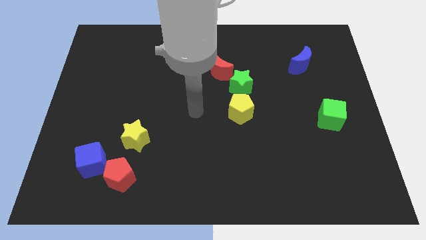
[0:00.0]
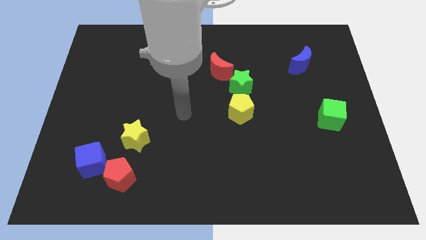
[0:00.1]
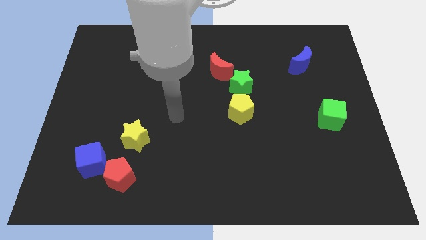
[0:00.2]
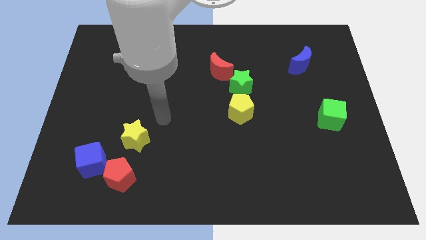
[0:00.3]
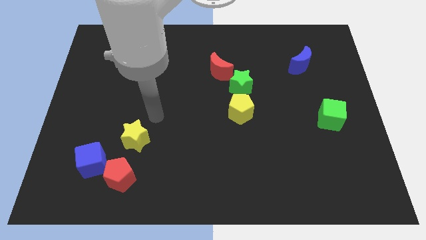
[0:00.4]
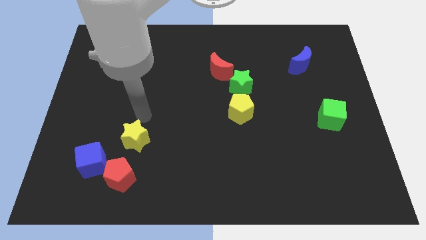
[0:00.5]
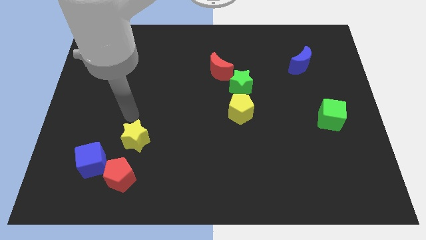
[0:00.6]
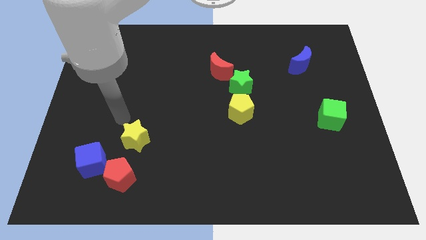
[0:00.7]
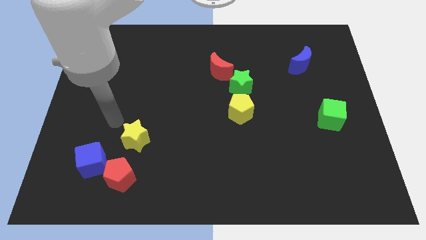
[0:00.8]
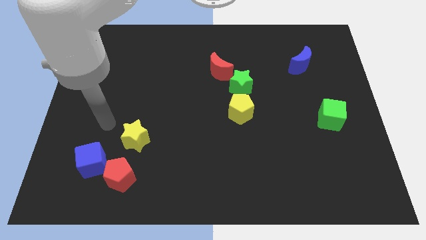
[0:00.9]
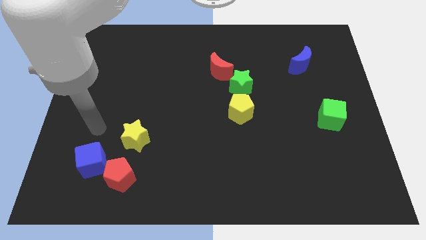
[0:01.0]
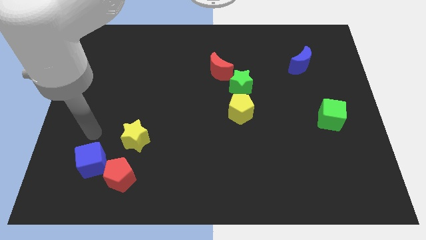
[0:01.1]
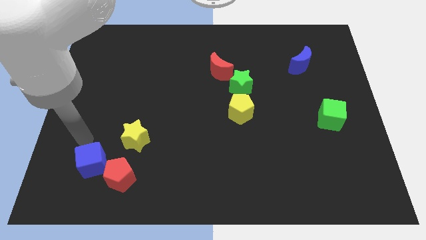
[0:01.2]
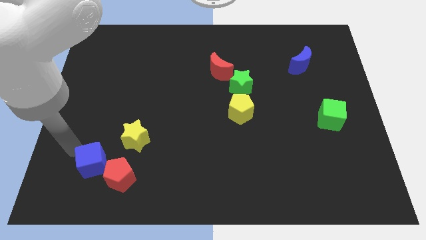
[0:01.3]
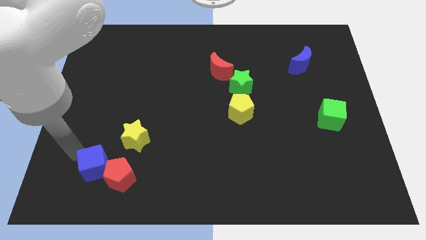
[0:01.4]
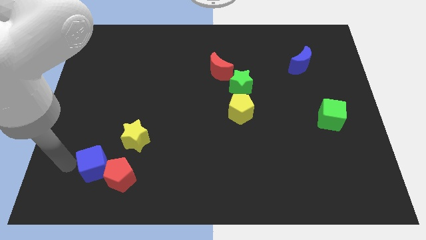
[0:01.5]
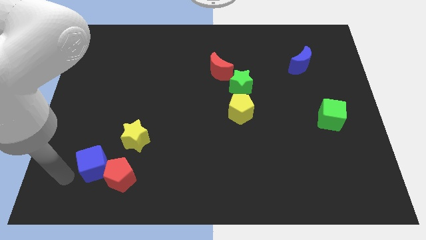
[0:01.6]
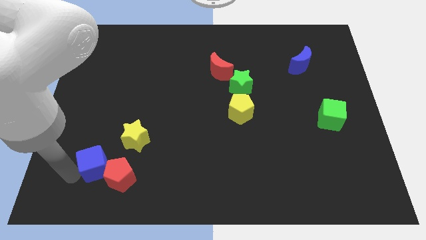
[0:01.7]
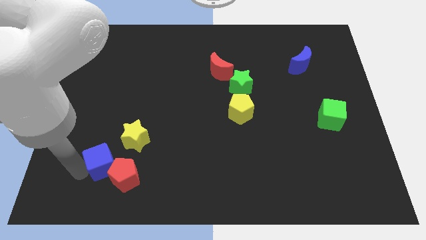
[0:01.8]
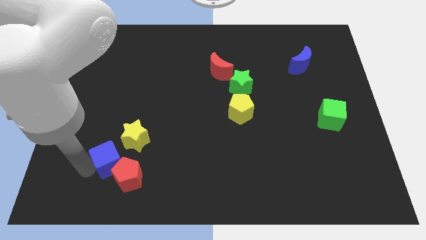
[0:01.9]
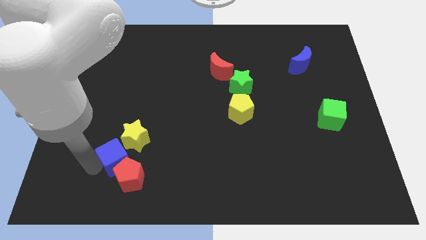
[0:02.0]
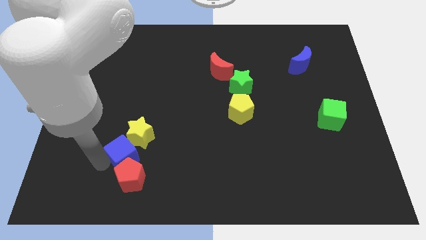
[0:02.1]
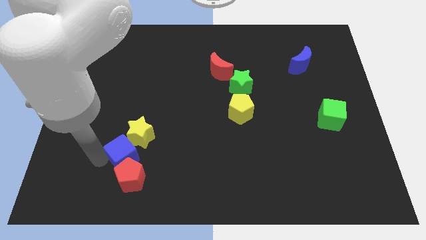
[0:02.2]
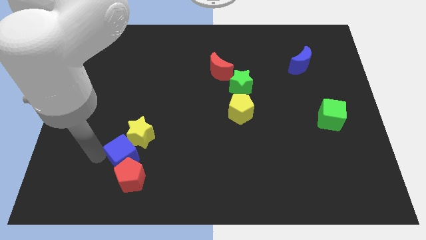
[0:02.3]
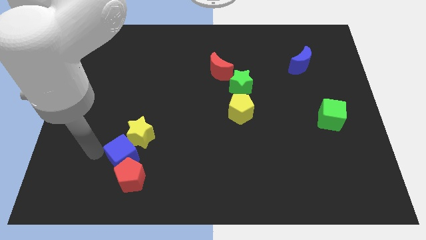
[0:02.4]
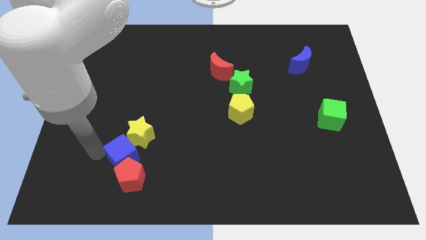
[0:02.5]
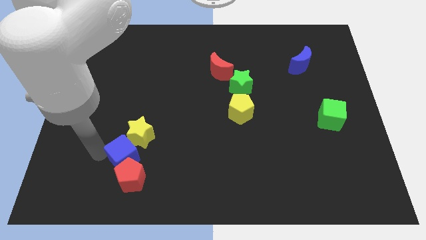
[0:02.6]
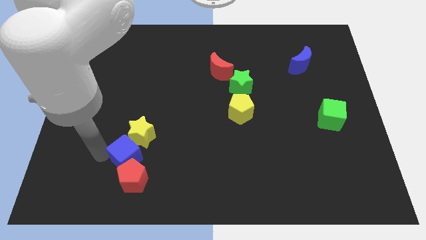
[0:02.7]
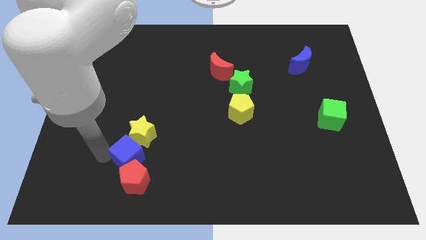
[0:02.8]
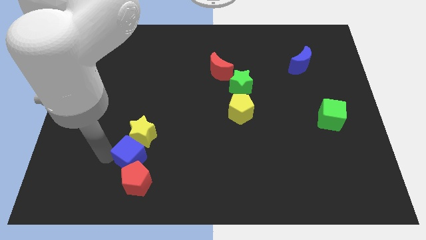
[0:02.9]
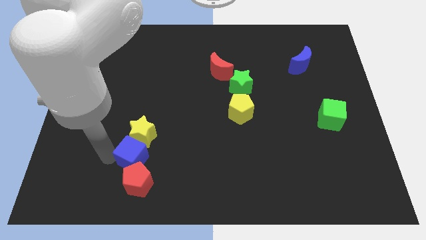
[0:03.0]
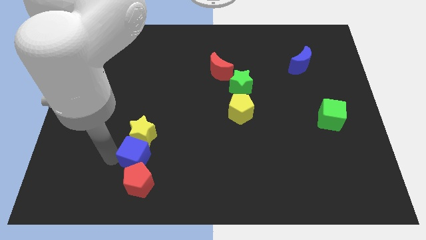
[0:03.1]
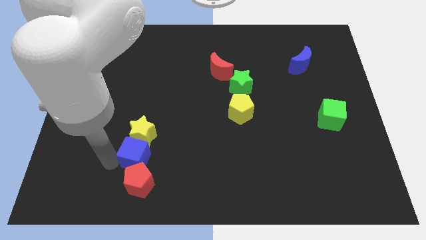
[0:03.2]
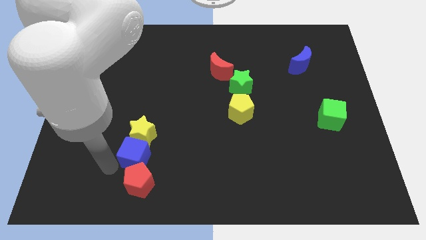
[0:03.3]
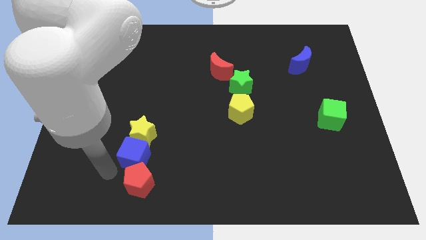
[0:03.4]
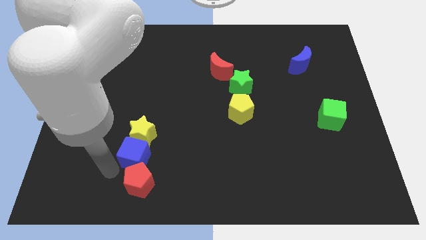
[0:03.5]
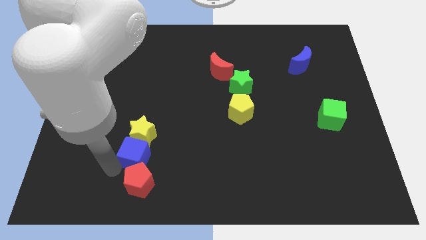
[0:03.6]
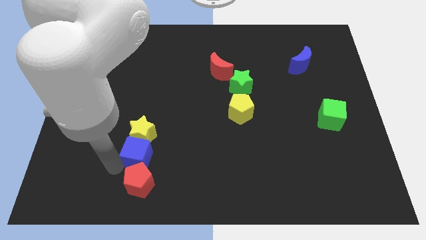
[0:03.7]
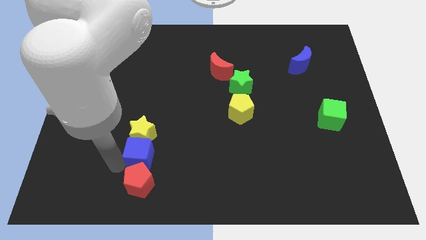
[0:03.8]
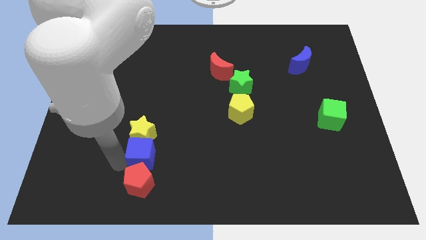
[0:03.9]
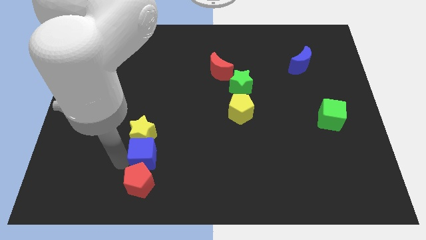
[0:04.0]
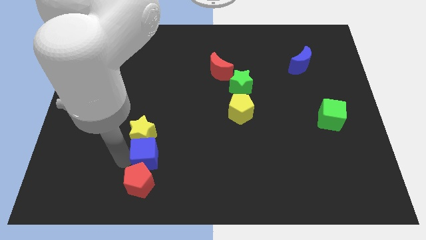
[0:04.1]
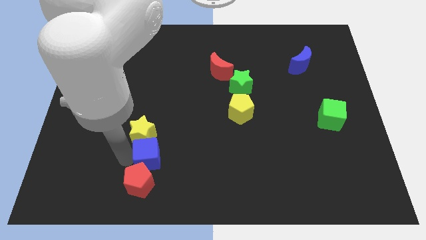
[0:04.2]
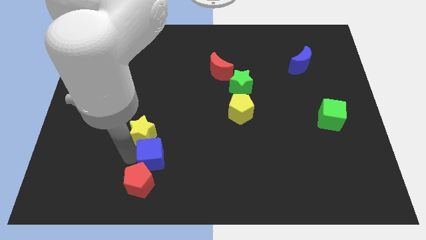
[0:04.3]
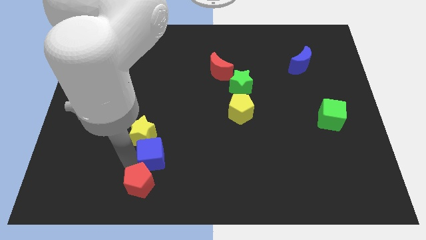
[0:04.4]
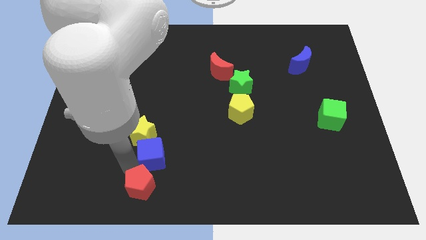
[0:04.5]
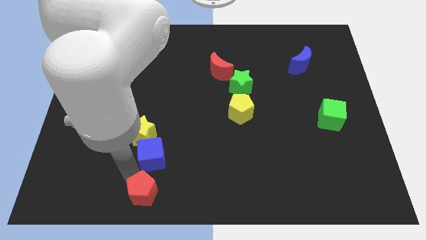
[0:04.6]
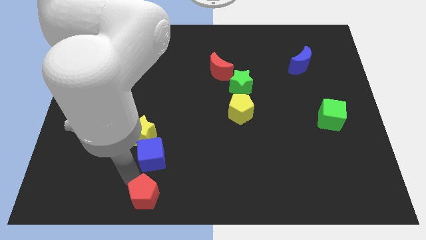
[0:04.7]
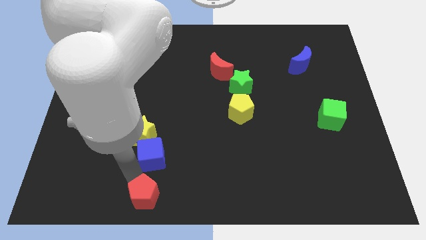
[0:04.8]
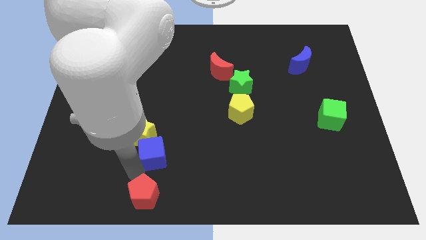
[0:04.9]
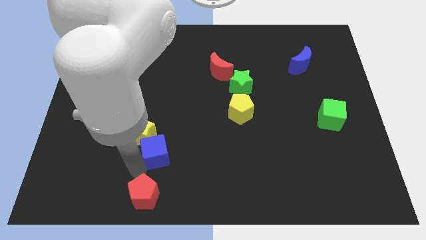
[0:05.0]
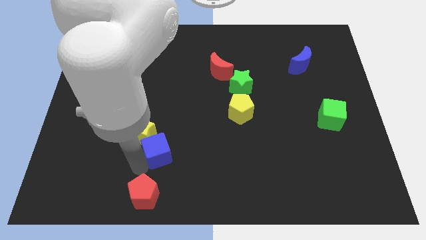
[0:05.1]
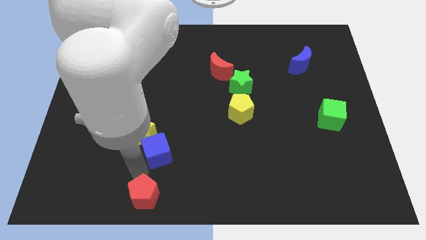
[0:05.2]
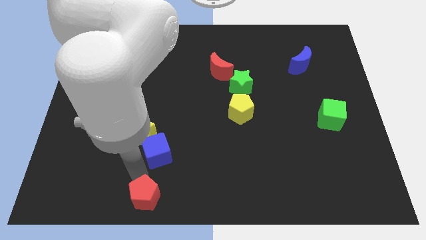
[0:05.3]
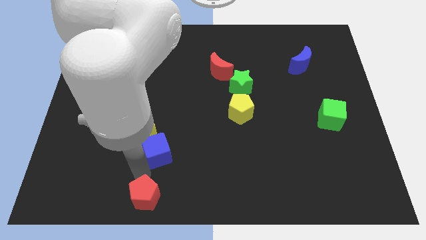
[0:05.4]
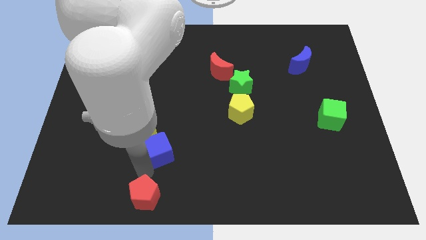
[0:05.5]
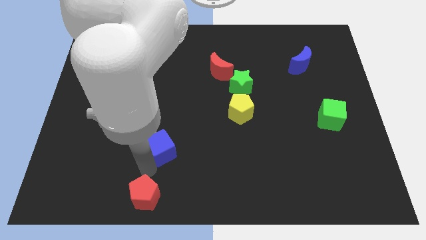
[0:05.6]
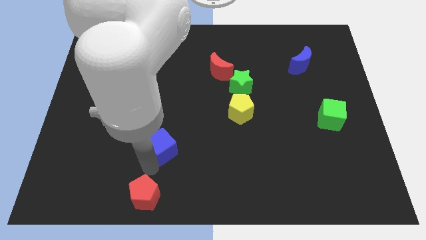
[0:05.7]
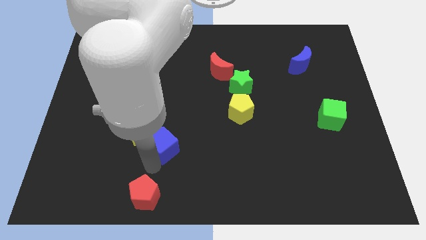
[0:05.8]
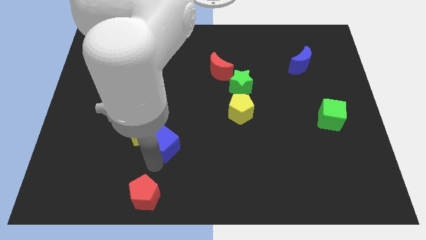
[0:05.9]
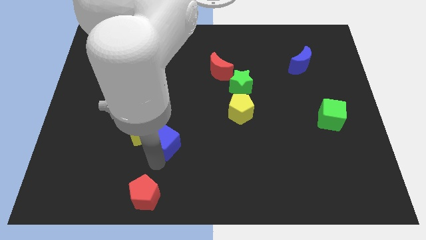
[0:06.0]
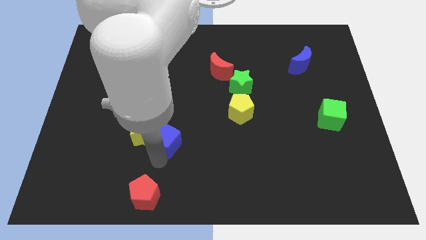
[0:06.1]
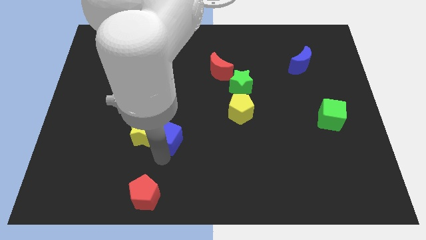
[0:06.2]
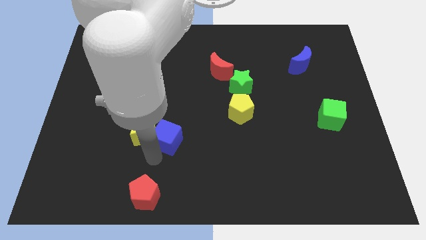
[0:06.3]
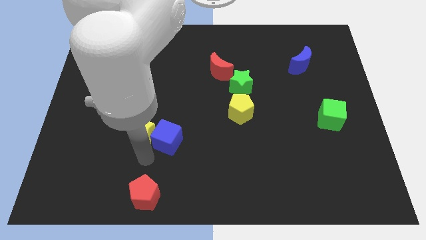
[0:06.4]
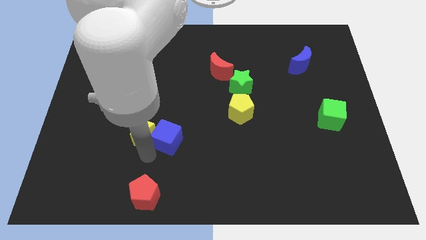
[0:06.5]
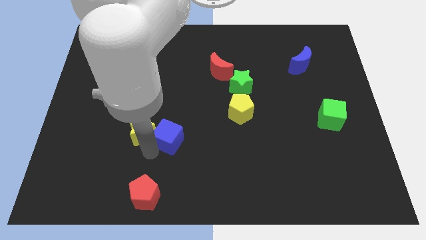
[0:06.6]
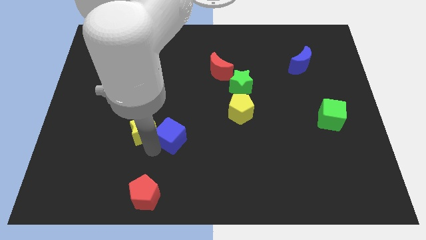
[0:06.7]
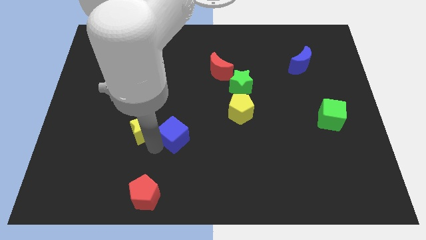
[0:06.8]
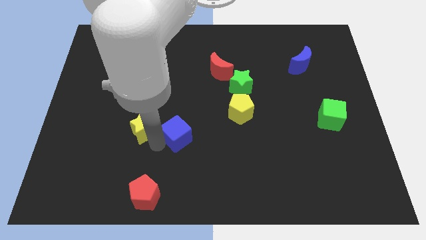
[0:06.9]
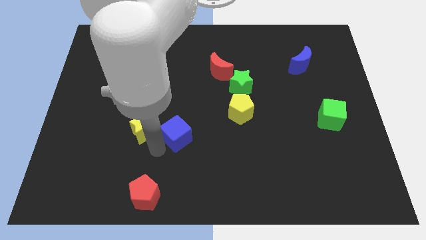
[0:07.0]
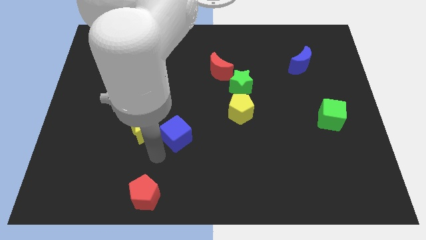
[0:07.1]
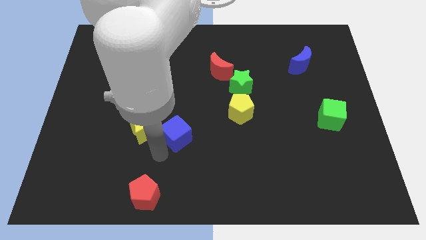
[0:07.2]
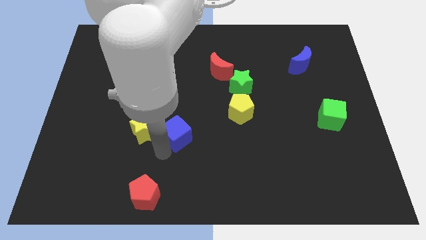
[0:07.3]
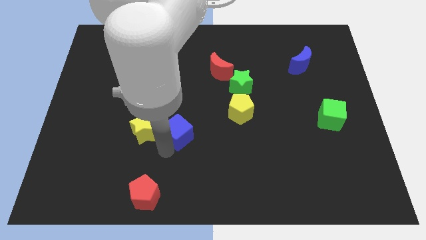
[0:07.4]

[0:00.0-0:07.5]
move the blue cube to the center
